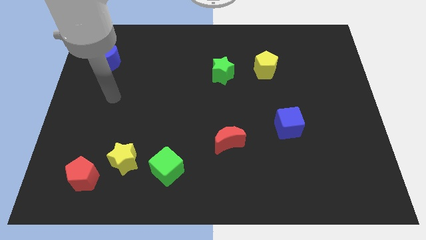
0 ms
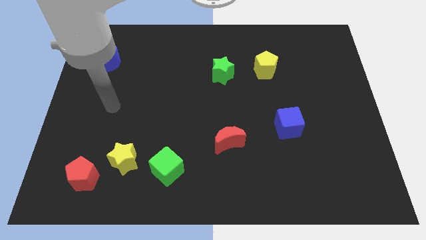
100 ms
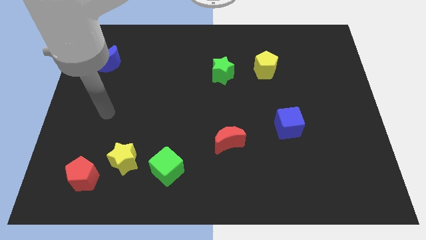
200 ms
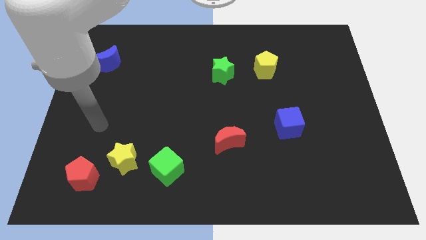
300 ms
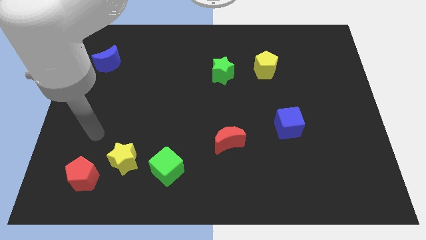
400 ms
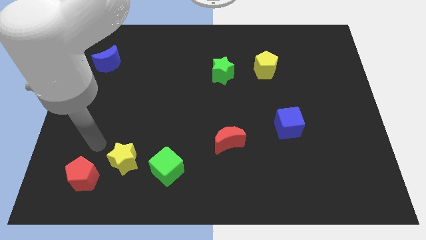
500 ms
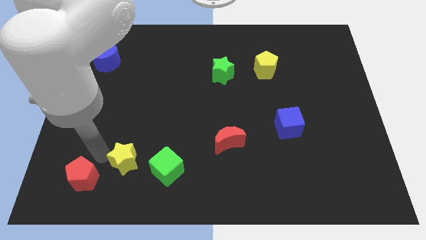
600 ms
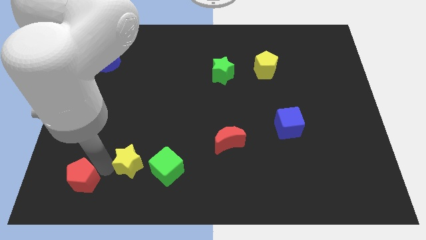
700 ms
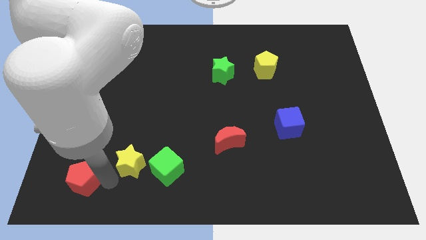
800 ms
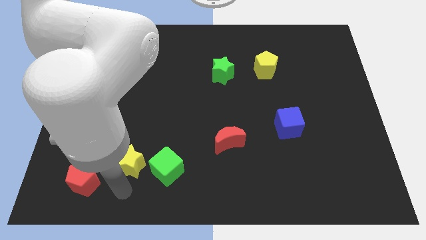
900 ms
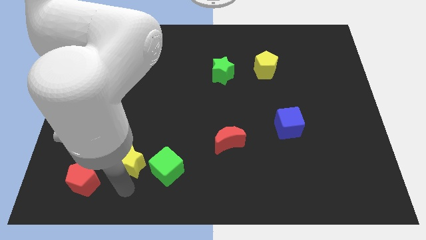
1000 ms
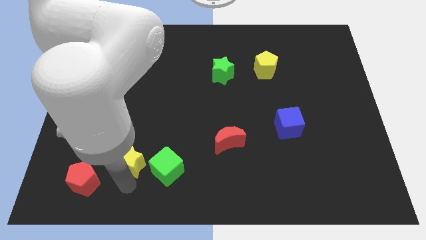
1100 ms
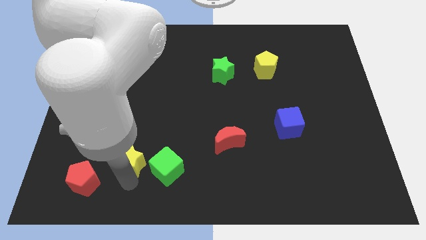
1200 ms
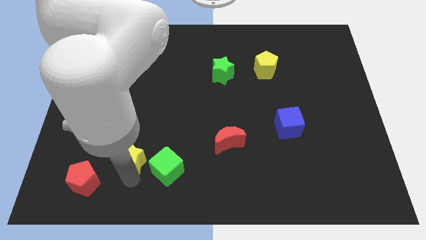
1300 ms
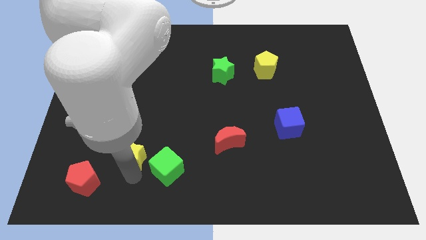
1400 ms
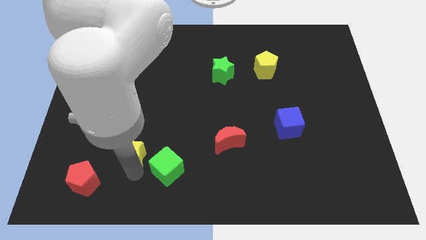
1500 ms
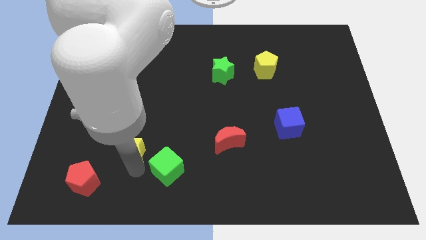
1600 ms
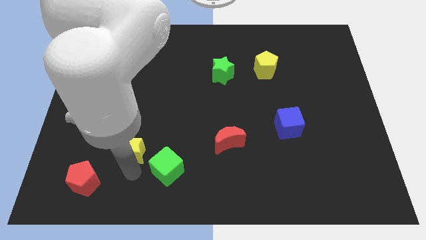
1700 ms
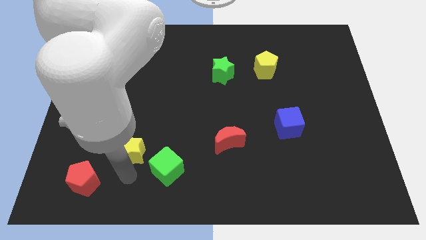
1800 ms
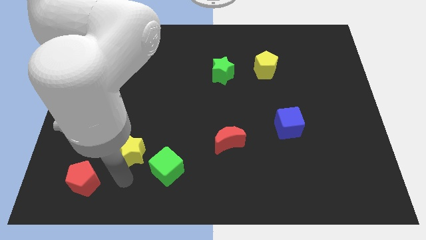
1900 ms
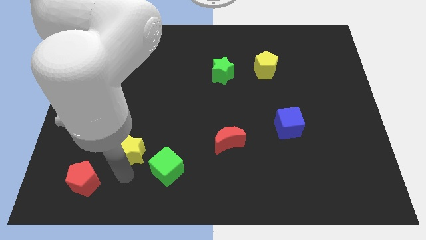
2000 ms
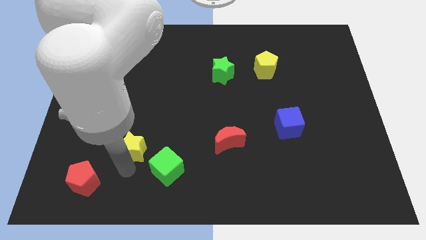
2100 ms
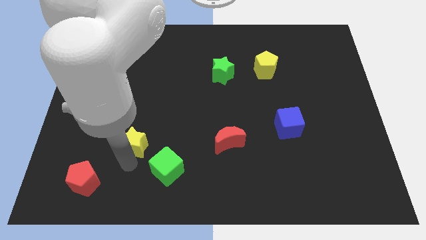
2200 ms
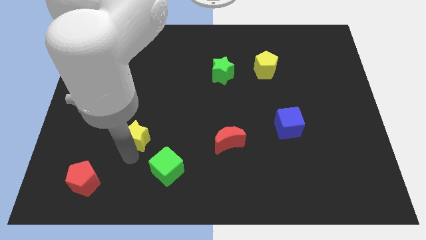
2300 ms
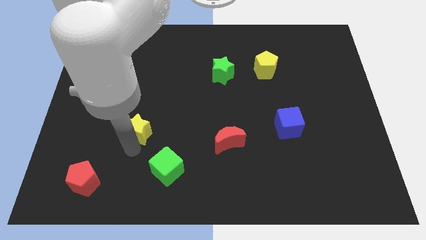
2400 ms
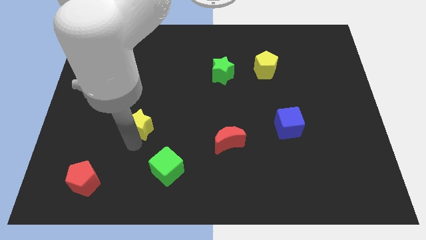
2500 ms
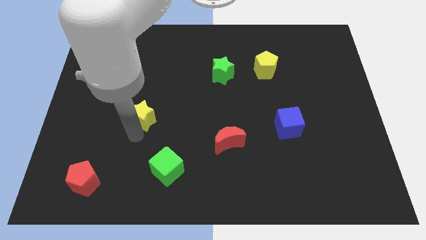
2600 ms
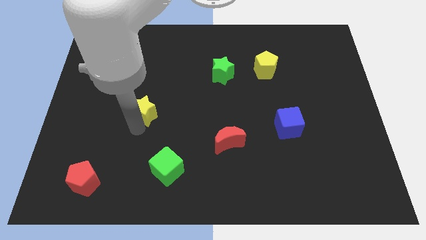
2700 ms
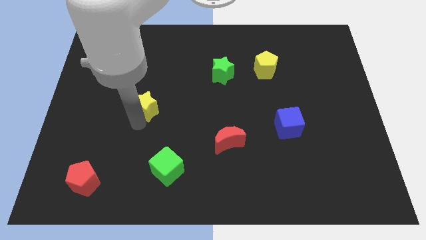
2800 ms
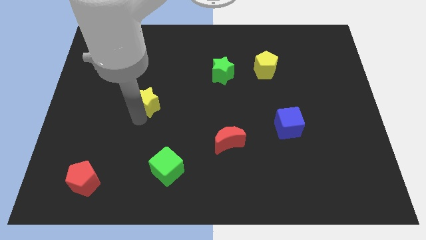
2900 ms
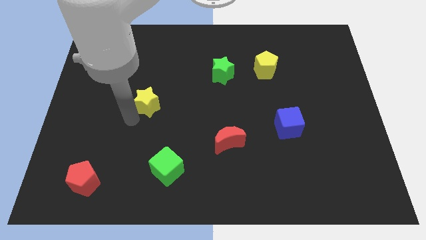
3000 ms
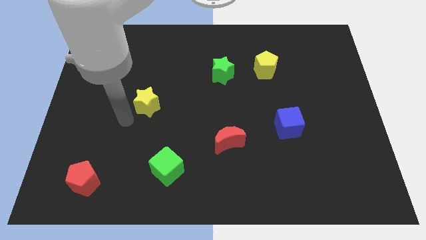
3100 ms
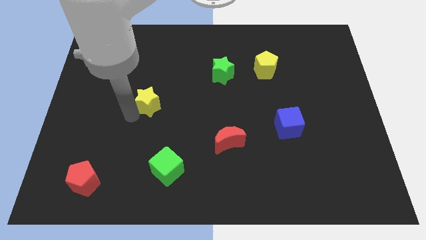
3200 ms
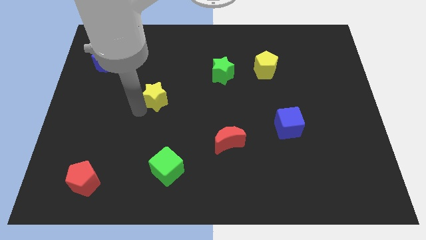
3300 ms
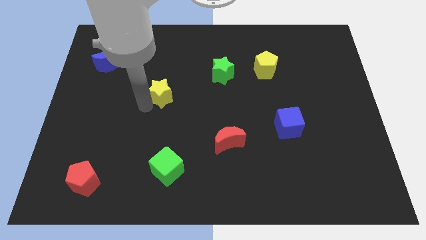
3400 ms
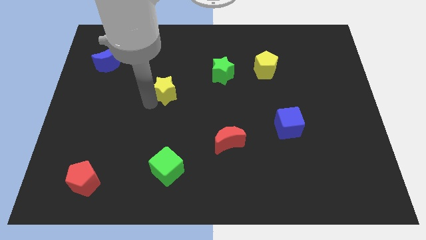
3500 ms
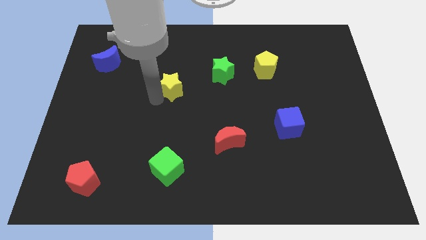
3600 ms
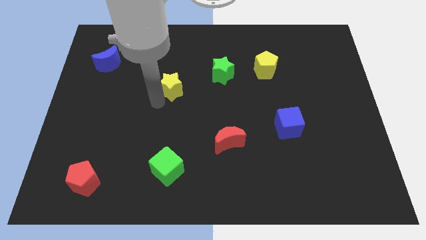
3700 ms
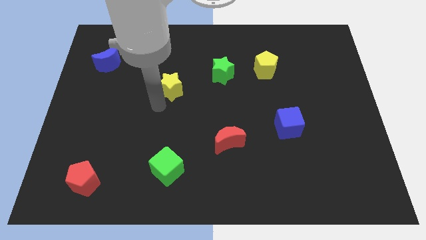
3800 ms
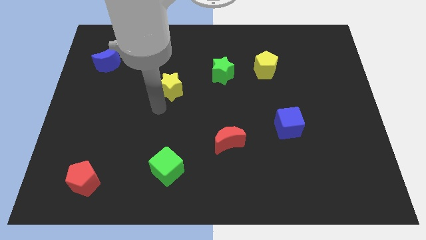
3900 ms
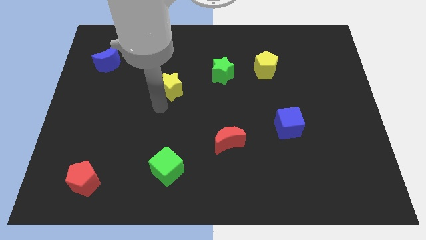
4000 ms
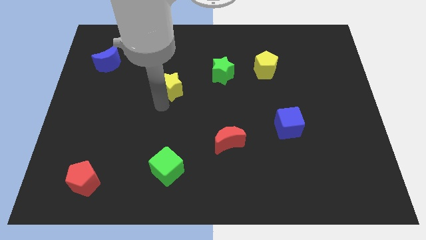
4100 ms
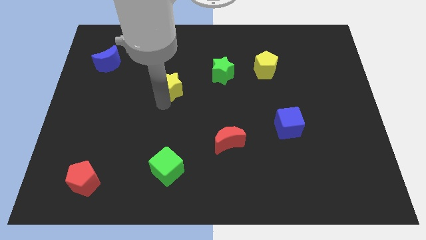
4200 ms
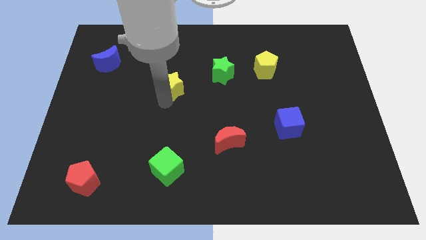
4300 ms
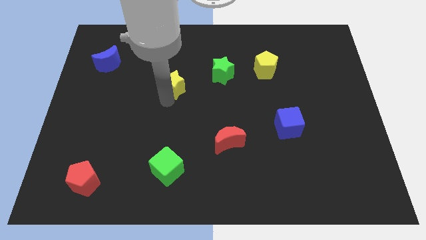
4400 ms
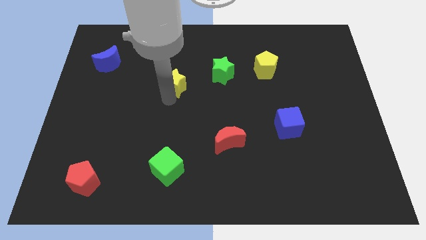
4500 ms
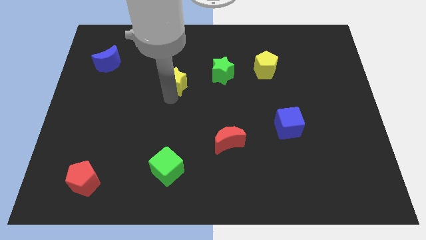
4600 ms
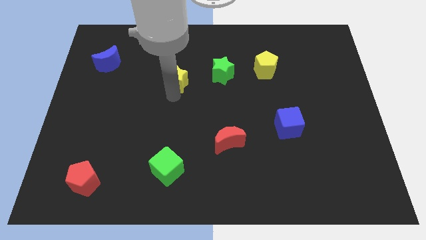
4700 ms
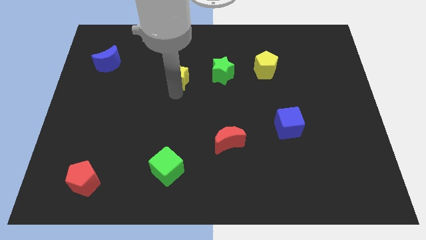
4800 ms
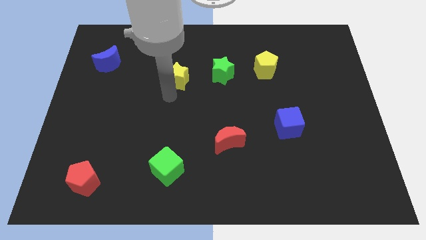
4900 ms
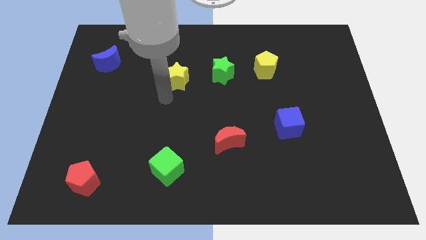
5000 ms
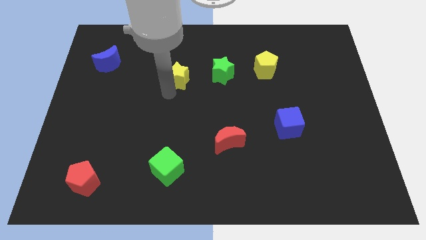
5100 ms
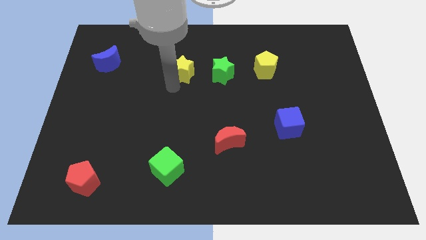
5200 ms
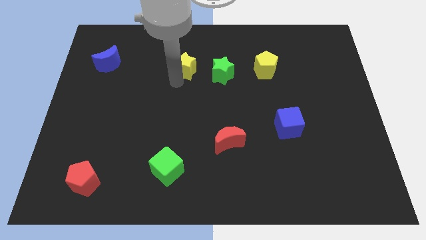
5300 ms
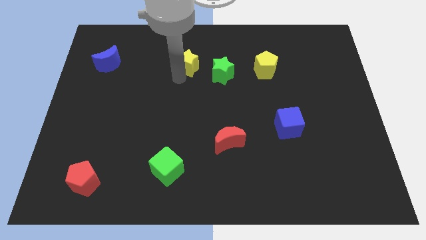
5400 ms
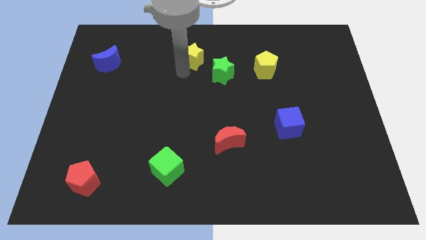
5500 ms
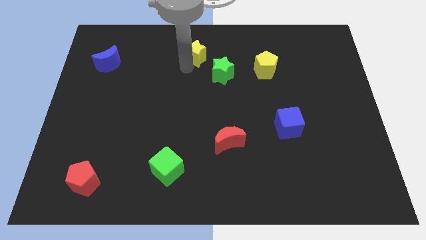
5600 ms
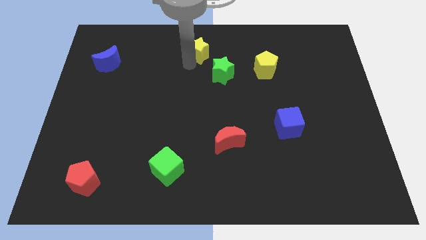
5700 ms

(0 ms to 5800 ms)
slide the yellow star to the towards your base

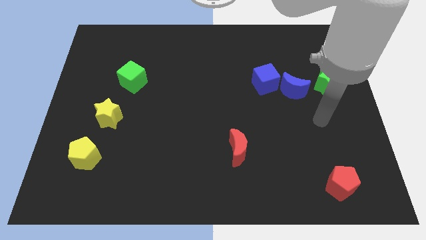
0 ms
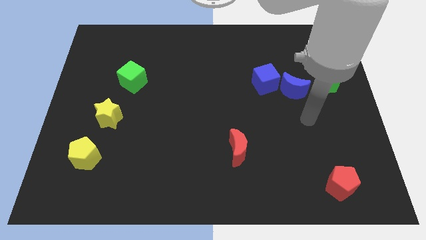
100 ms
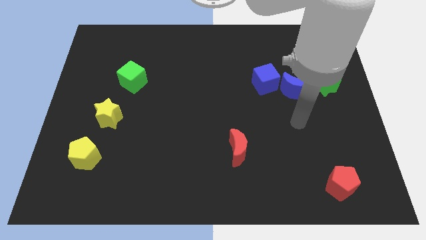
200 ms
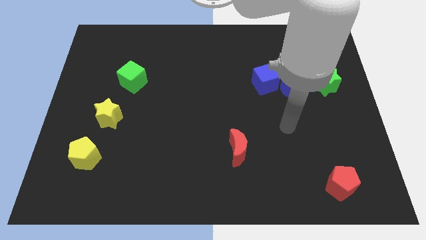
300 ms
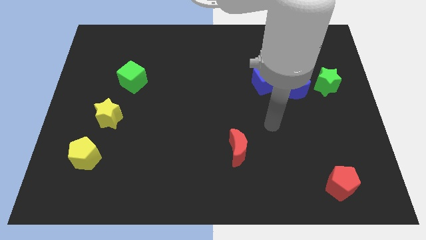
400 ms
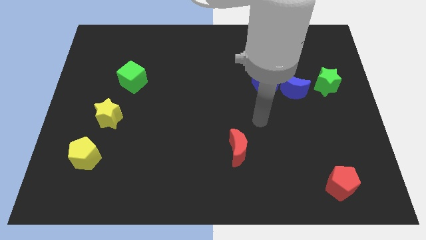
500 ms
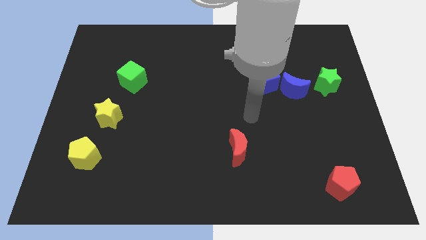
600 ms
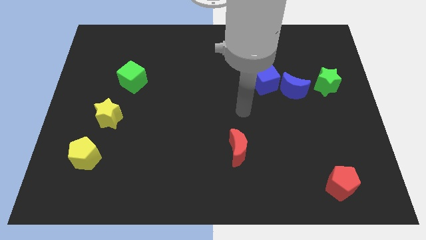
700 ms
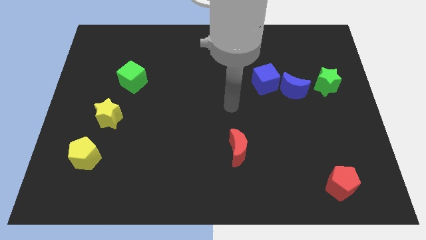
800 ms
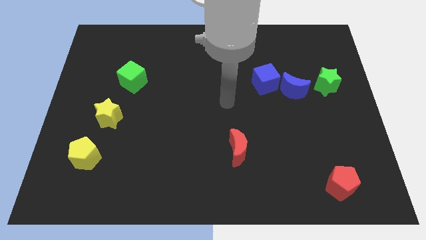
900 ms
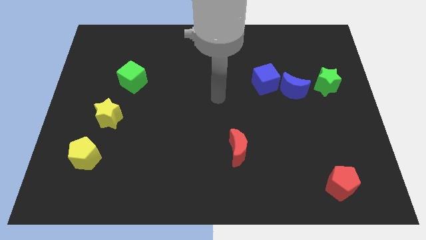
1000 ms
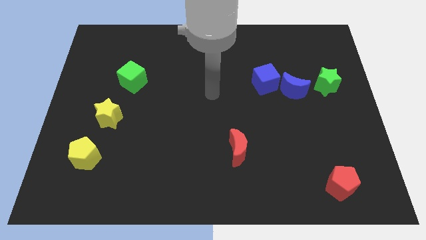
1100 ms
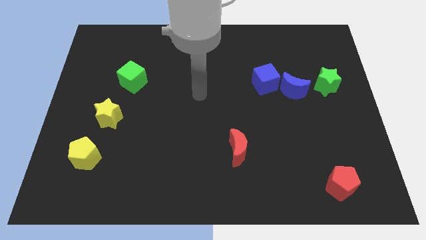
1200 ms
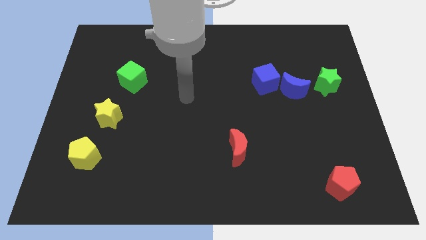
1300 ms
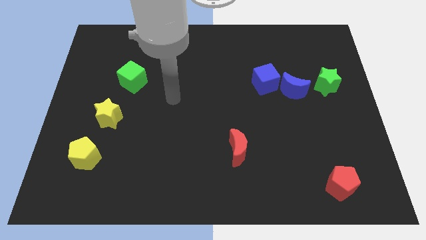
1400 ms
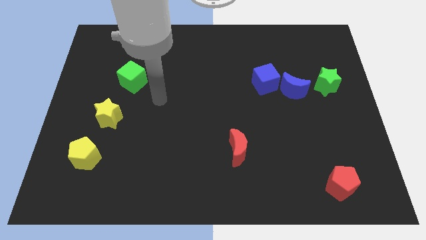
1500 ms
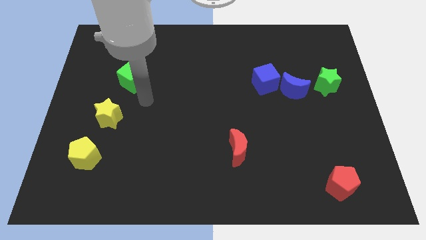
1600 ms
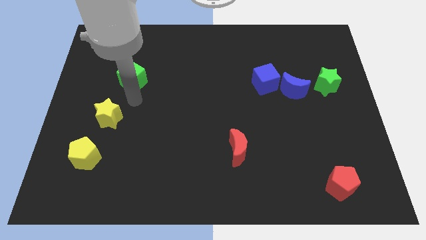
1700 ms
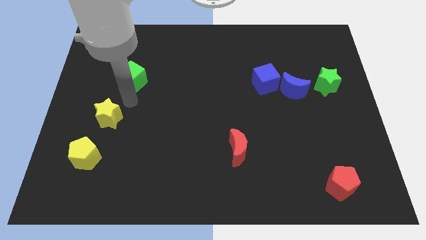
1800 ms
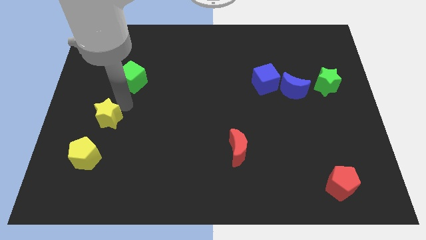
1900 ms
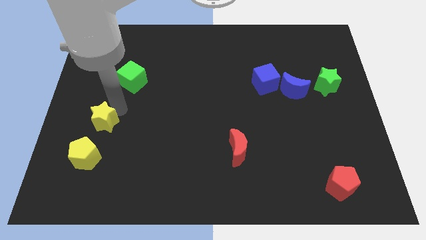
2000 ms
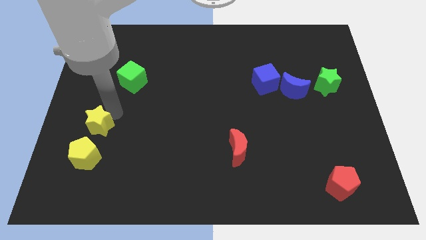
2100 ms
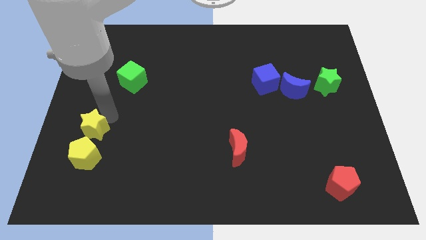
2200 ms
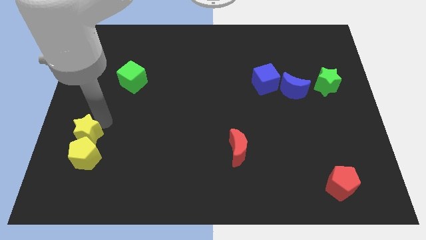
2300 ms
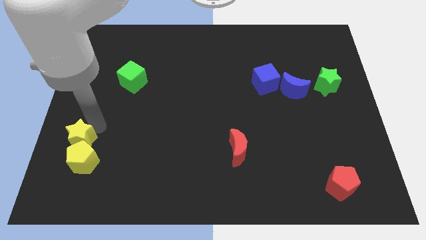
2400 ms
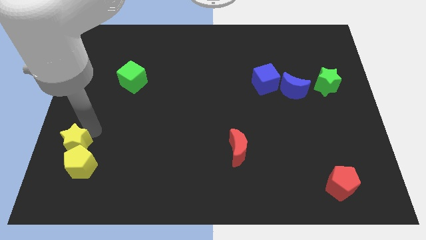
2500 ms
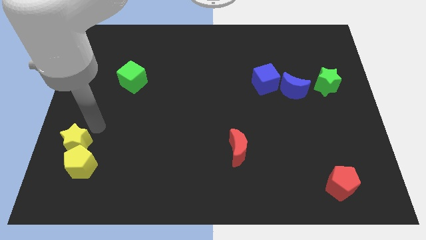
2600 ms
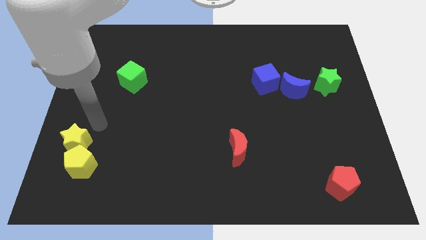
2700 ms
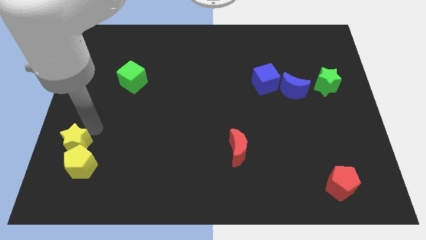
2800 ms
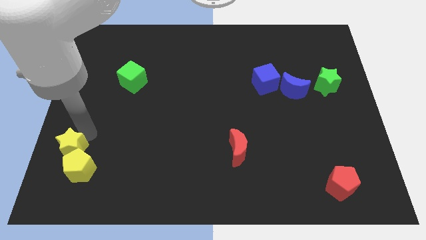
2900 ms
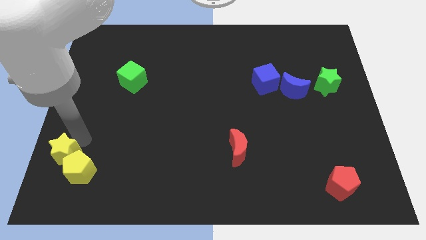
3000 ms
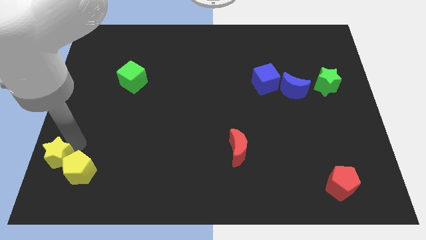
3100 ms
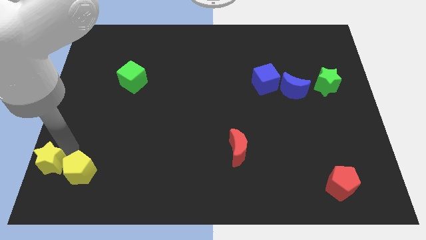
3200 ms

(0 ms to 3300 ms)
move the yellow star to the bottom left corner
